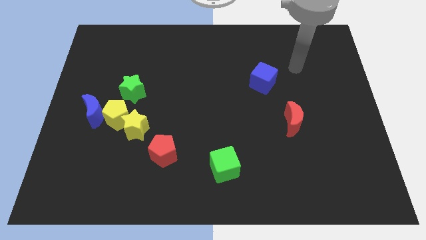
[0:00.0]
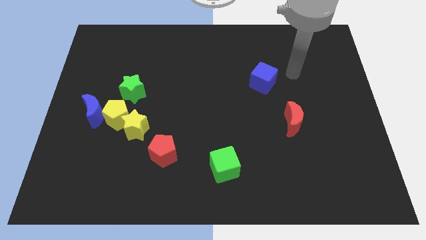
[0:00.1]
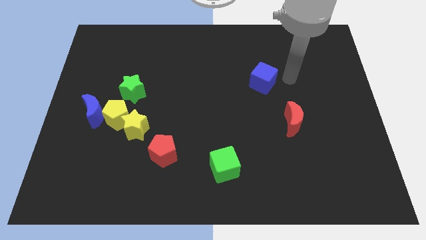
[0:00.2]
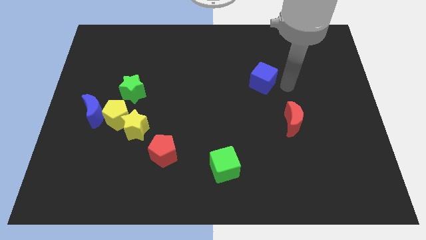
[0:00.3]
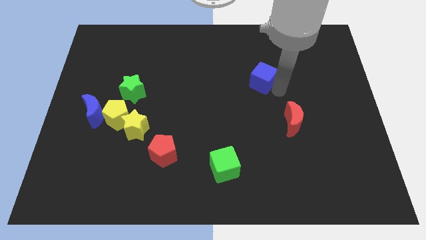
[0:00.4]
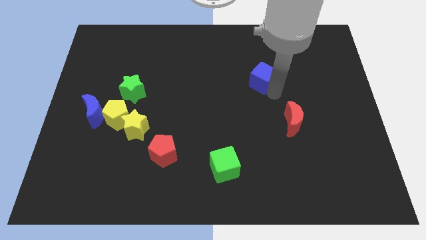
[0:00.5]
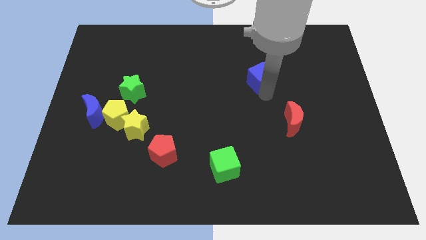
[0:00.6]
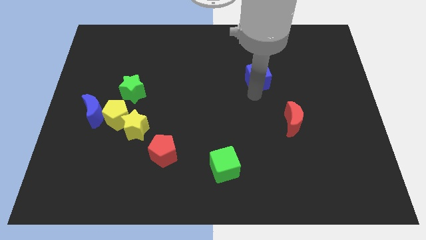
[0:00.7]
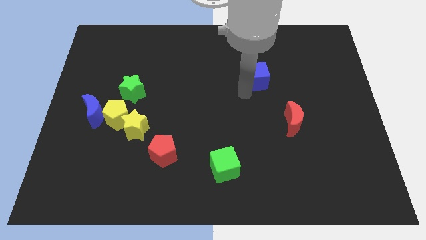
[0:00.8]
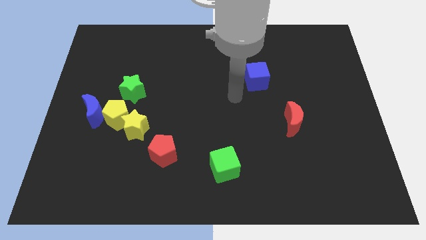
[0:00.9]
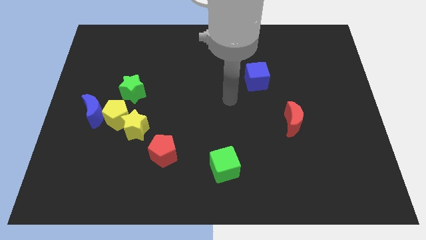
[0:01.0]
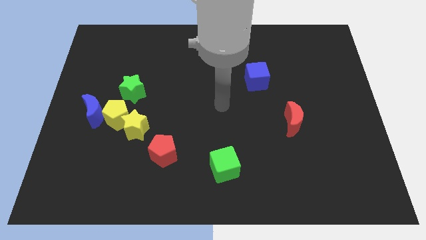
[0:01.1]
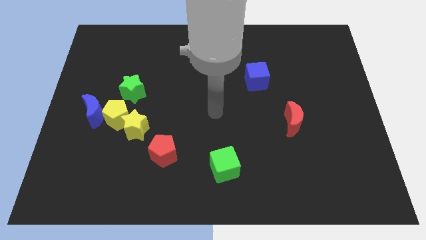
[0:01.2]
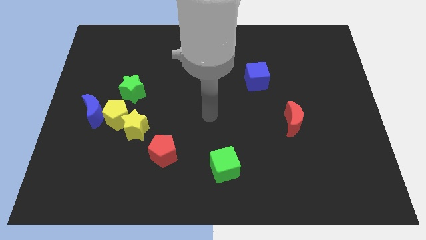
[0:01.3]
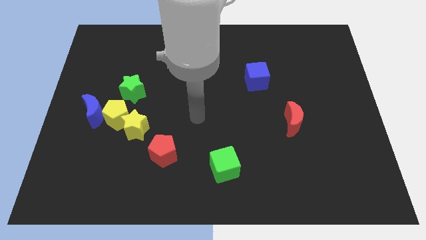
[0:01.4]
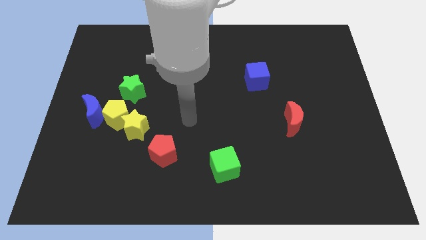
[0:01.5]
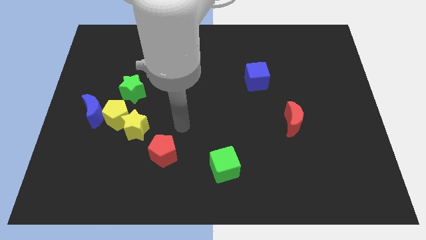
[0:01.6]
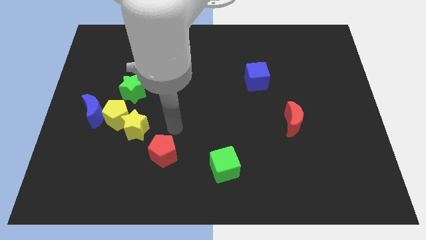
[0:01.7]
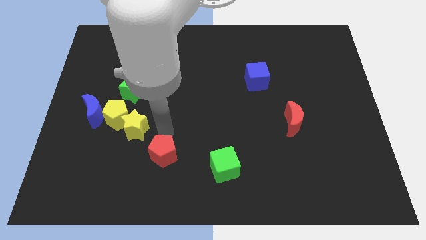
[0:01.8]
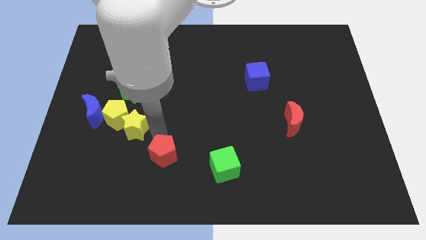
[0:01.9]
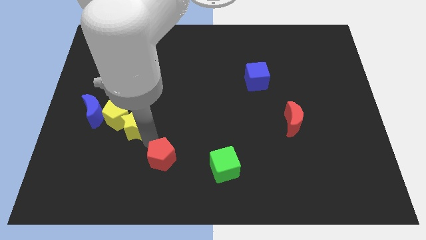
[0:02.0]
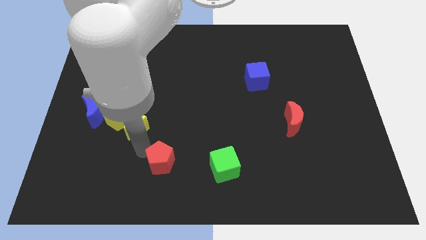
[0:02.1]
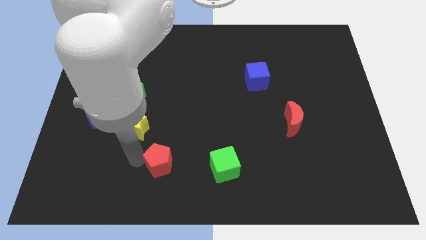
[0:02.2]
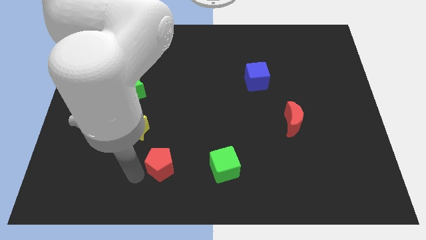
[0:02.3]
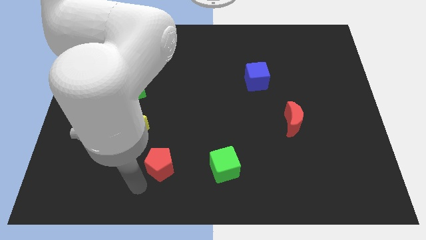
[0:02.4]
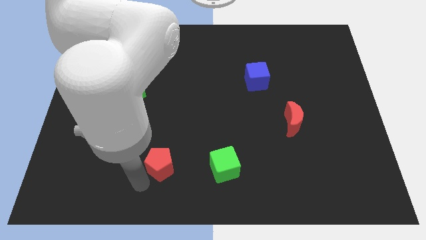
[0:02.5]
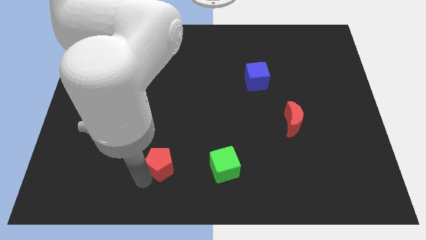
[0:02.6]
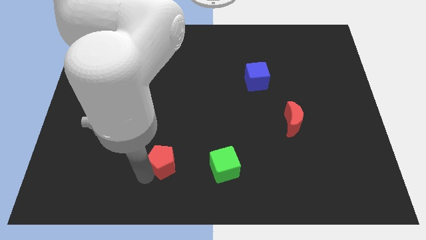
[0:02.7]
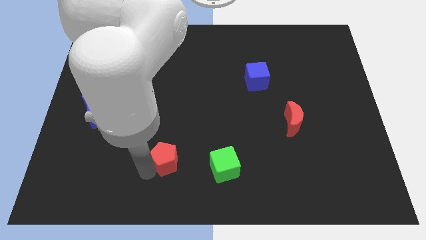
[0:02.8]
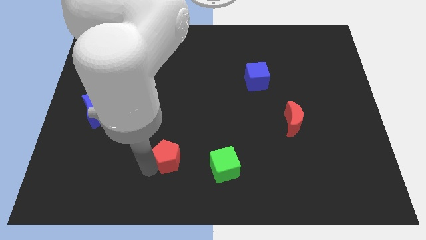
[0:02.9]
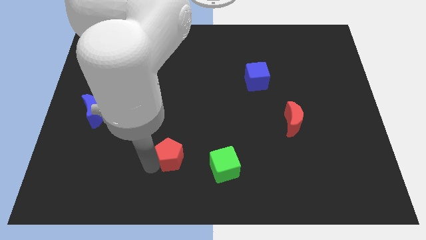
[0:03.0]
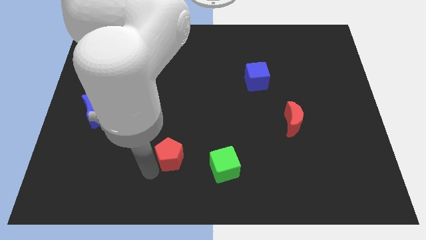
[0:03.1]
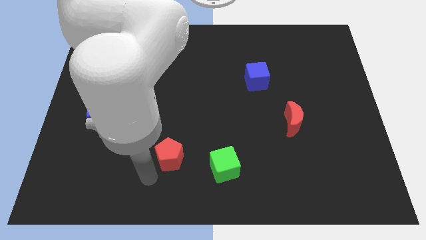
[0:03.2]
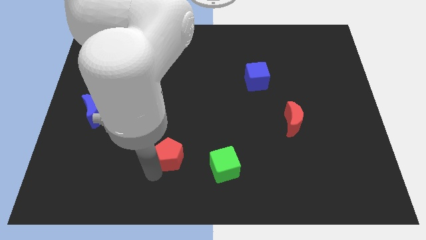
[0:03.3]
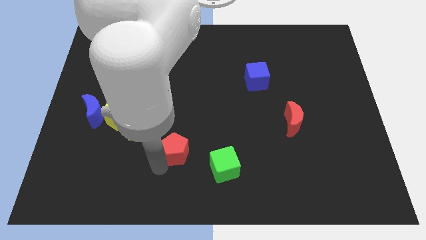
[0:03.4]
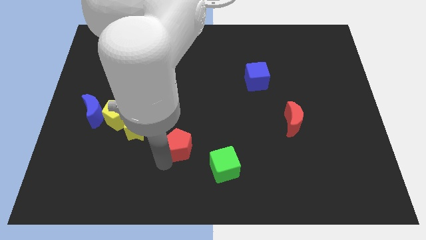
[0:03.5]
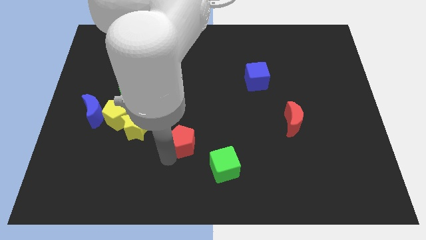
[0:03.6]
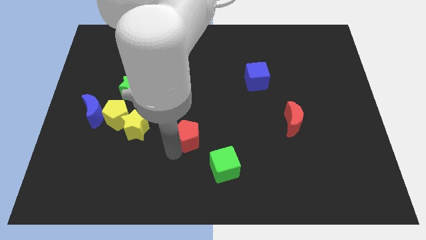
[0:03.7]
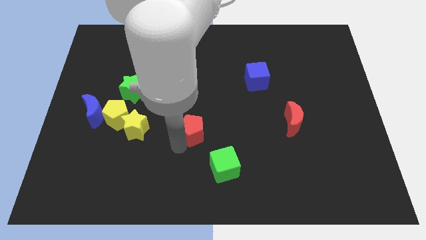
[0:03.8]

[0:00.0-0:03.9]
move the red pentagon up and then right a little bit

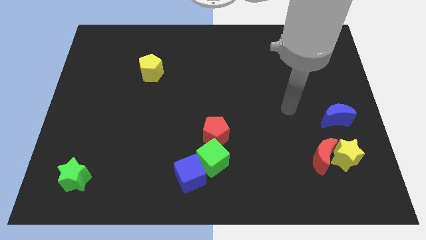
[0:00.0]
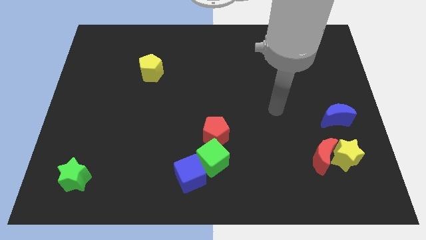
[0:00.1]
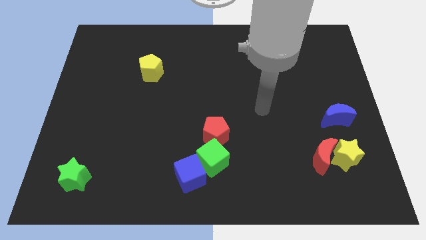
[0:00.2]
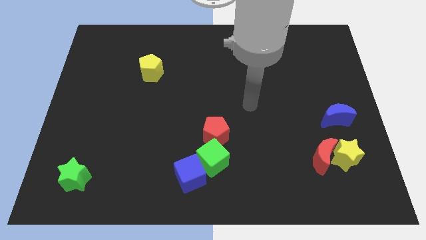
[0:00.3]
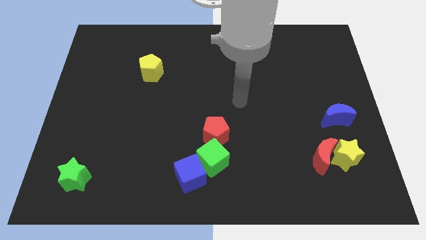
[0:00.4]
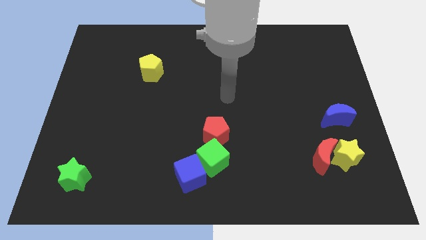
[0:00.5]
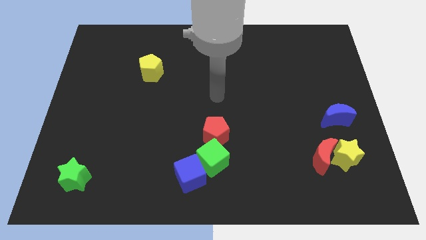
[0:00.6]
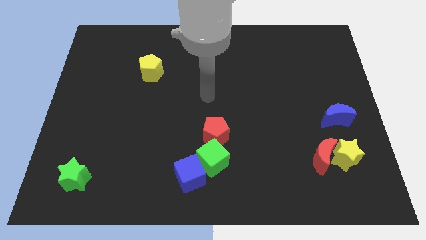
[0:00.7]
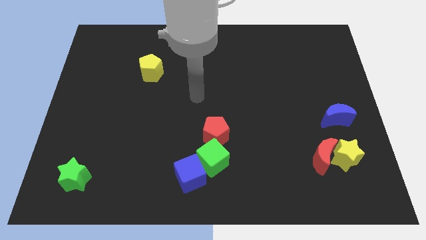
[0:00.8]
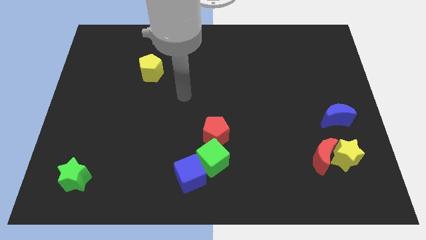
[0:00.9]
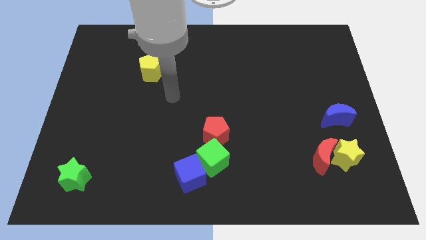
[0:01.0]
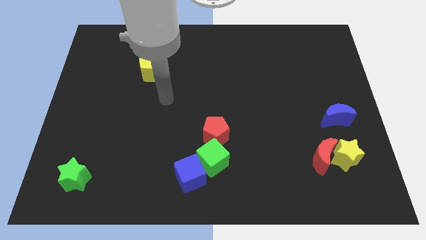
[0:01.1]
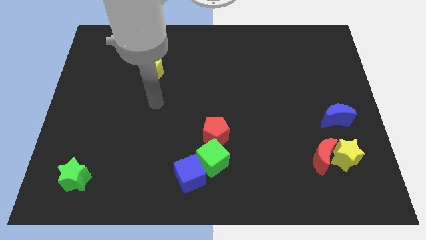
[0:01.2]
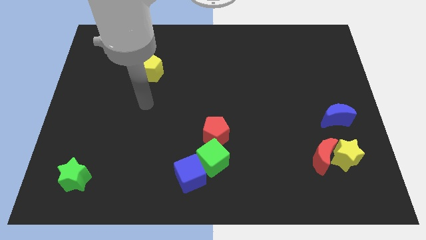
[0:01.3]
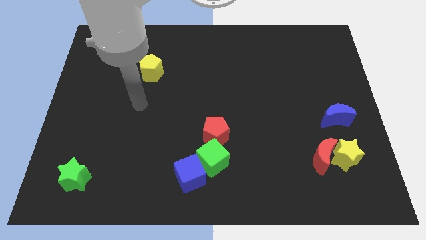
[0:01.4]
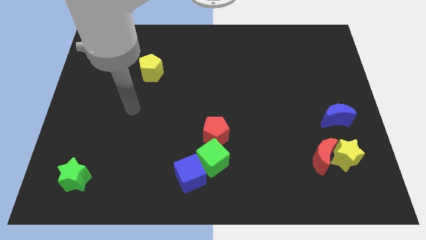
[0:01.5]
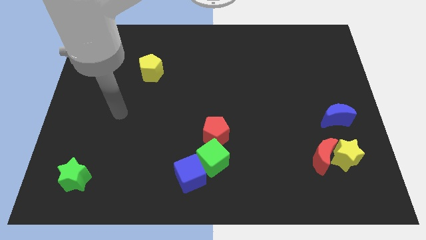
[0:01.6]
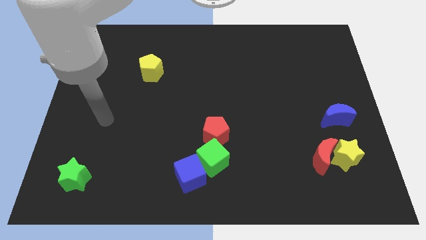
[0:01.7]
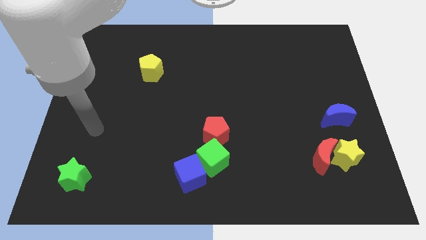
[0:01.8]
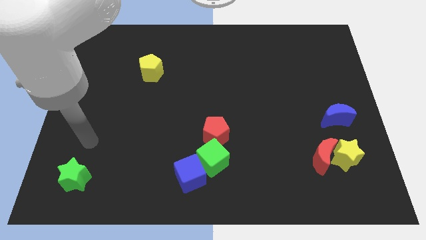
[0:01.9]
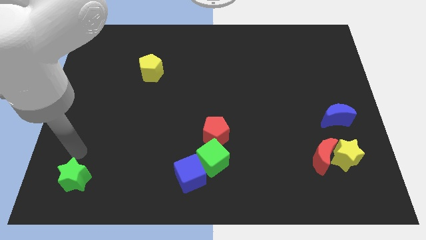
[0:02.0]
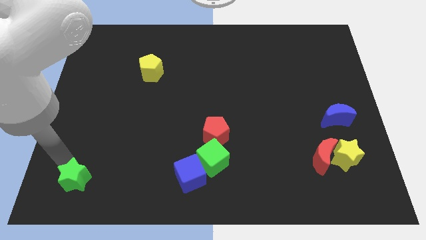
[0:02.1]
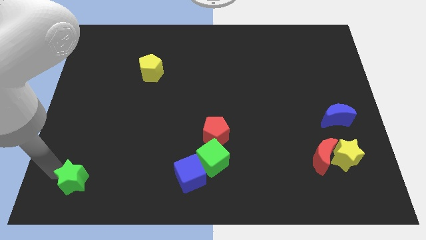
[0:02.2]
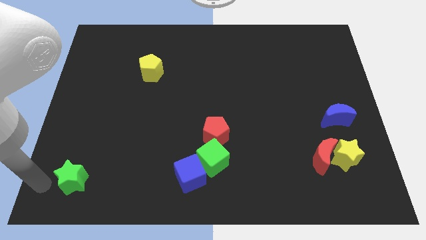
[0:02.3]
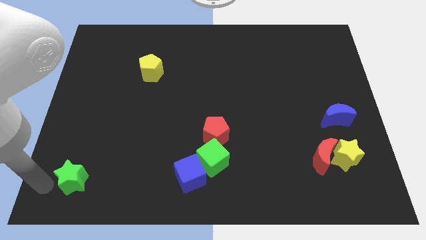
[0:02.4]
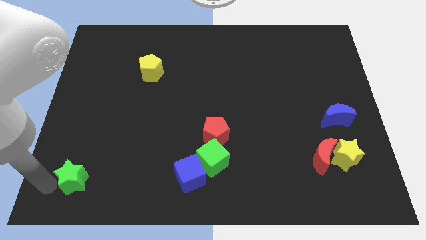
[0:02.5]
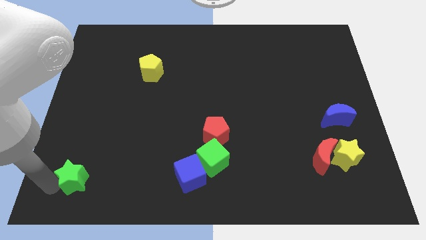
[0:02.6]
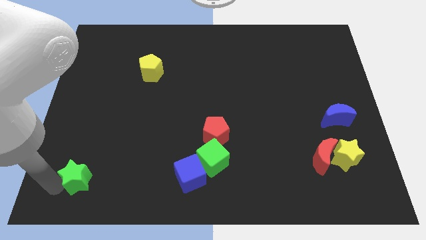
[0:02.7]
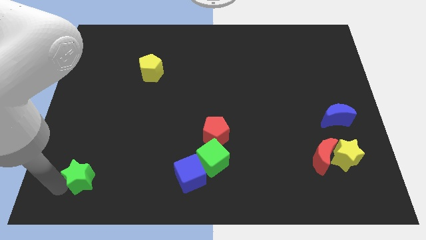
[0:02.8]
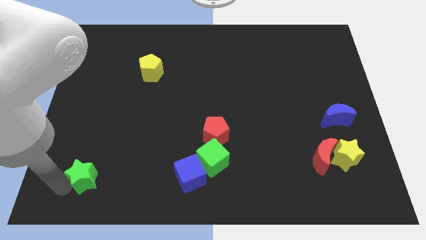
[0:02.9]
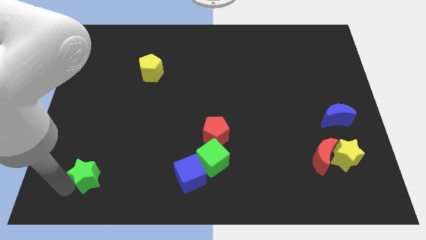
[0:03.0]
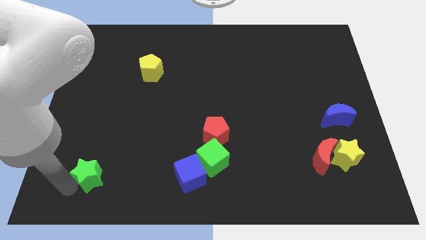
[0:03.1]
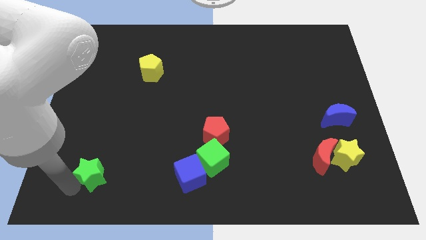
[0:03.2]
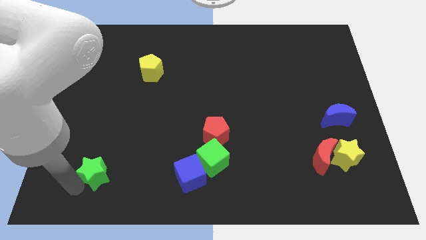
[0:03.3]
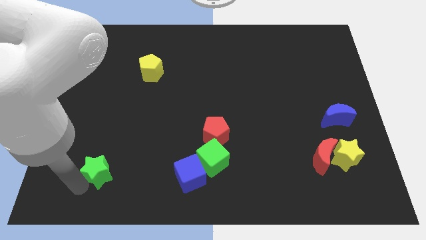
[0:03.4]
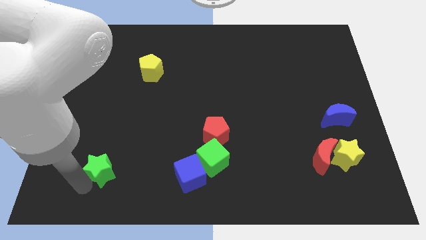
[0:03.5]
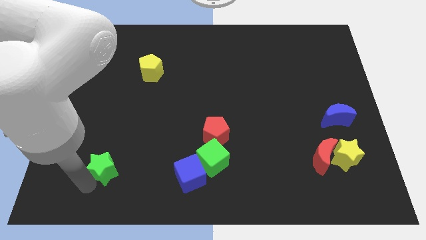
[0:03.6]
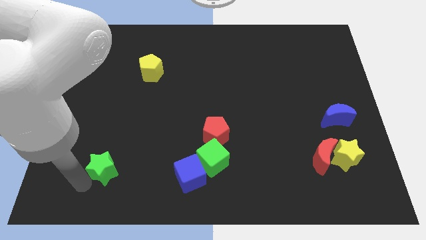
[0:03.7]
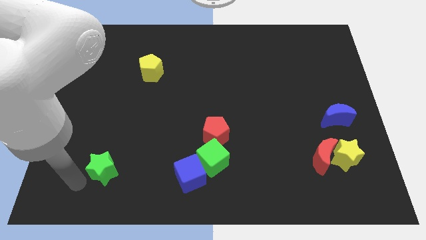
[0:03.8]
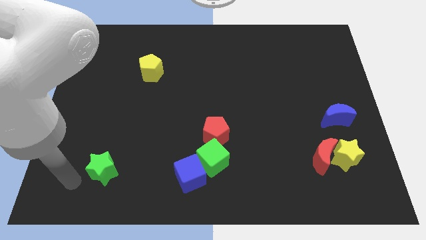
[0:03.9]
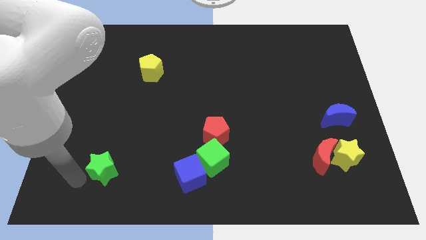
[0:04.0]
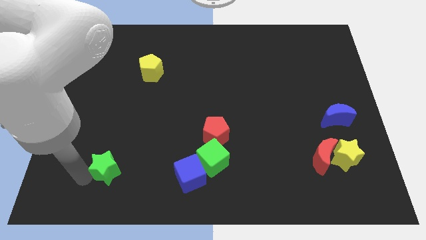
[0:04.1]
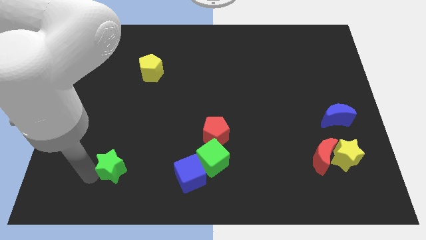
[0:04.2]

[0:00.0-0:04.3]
move the green star a bit to the right
